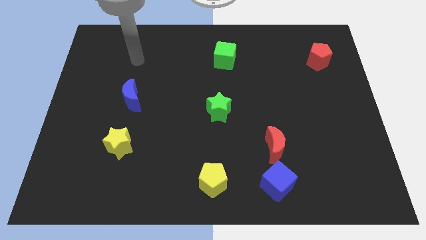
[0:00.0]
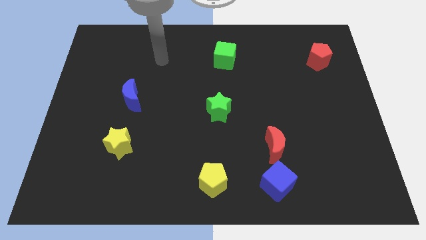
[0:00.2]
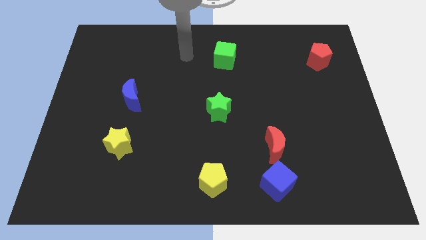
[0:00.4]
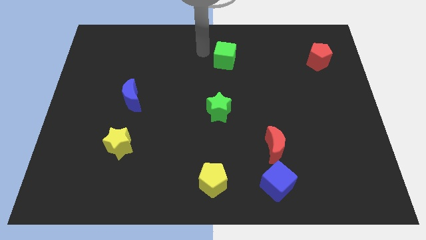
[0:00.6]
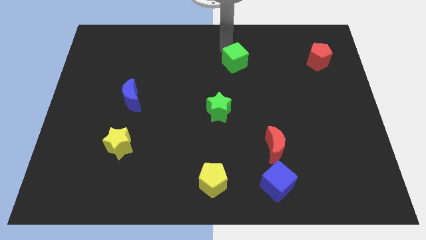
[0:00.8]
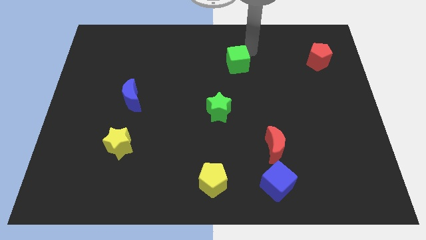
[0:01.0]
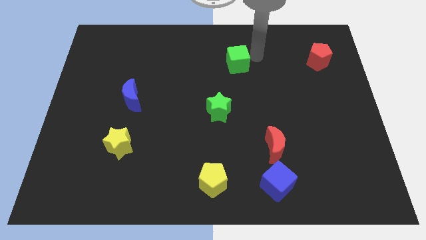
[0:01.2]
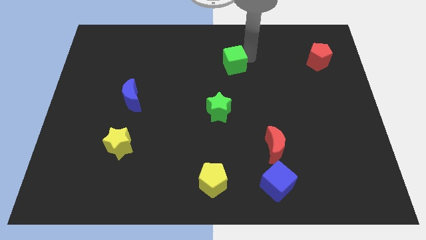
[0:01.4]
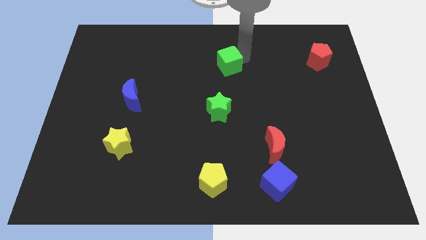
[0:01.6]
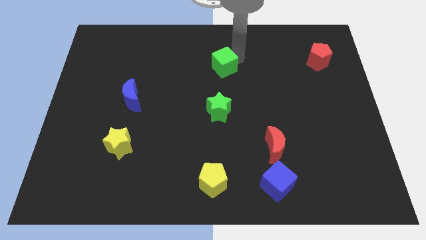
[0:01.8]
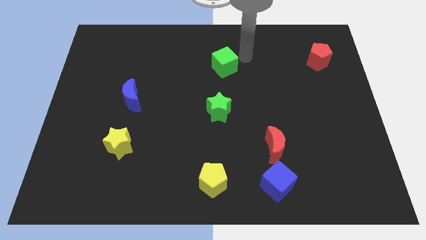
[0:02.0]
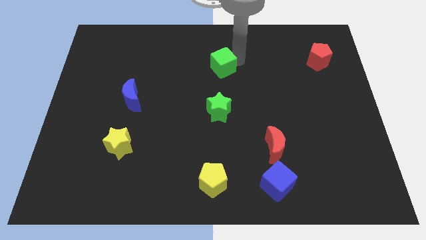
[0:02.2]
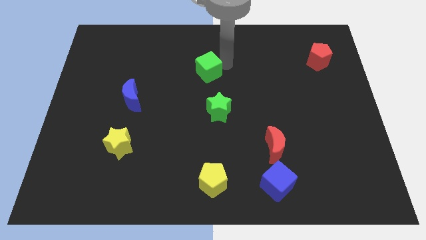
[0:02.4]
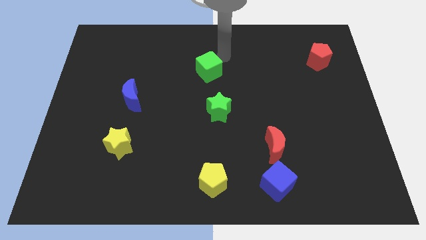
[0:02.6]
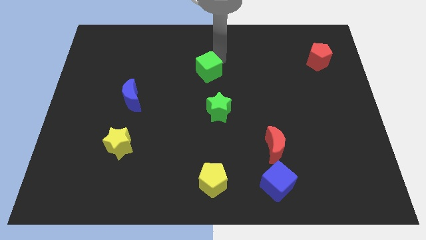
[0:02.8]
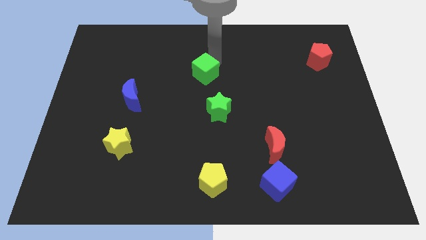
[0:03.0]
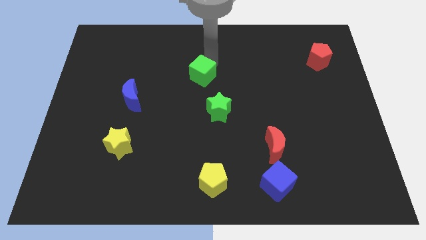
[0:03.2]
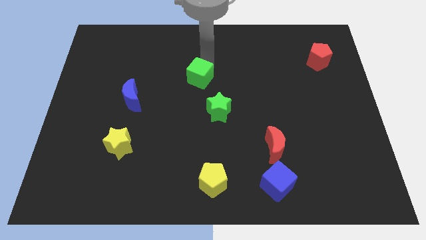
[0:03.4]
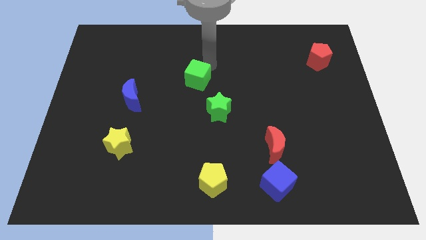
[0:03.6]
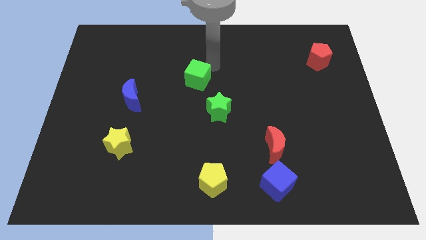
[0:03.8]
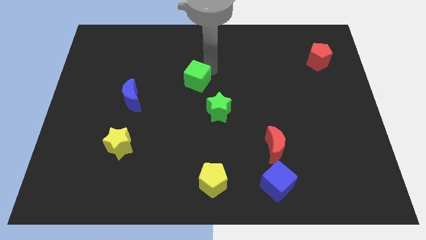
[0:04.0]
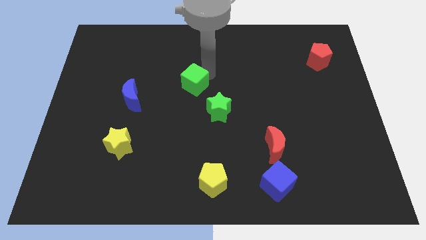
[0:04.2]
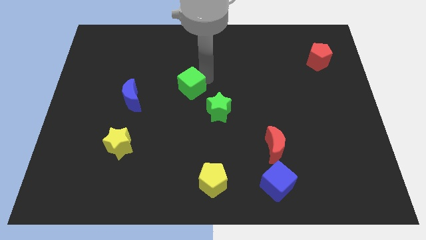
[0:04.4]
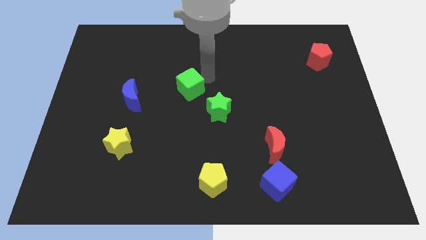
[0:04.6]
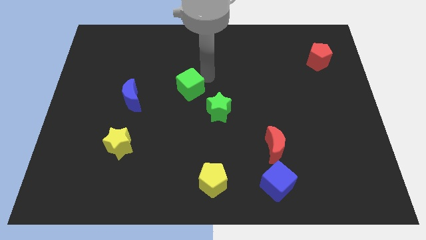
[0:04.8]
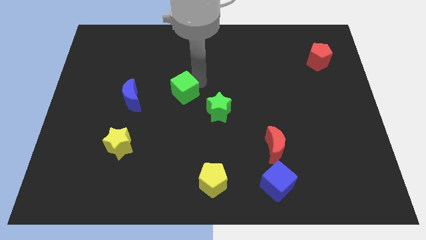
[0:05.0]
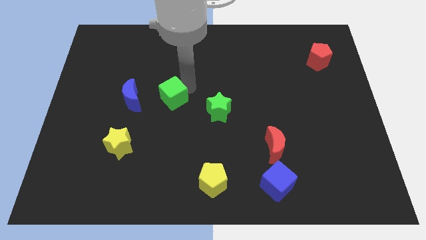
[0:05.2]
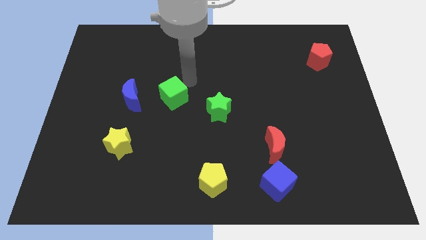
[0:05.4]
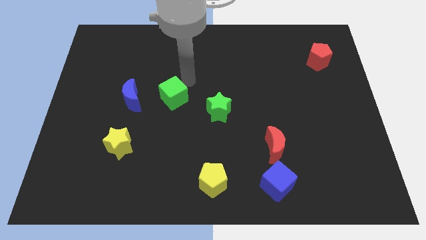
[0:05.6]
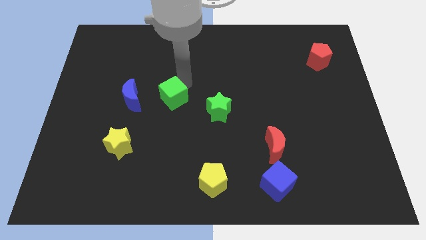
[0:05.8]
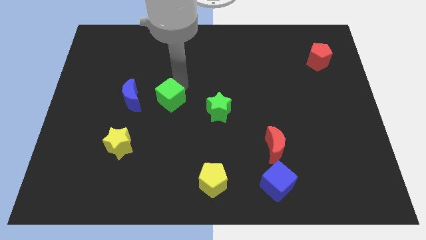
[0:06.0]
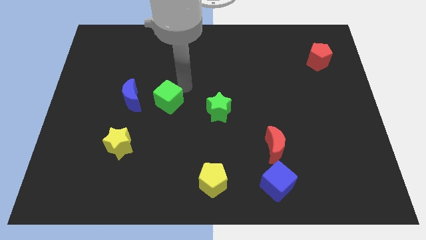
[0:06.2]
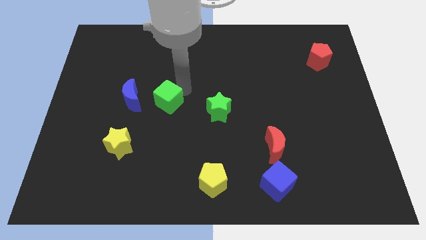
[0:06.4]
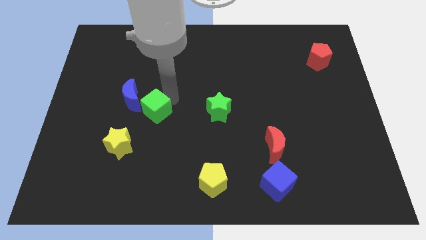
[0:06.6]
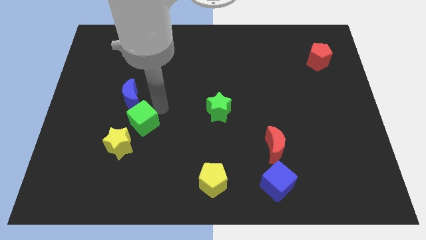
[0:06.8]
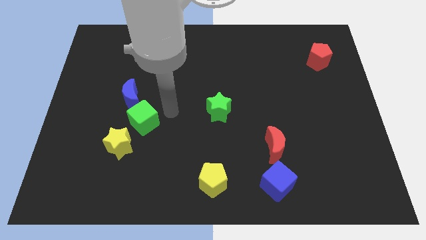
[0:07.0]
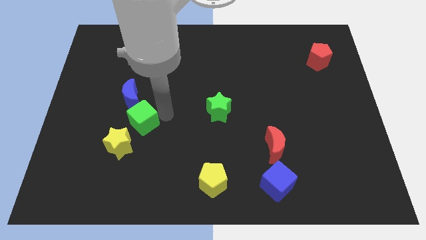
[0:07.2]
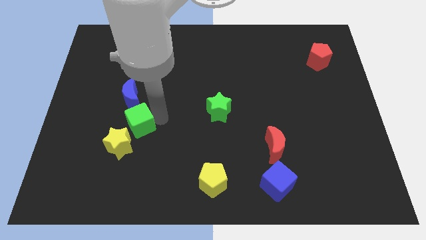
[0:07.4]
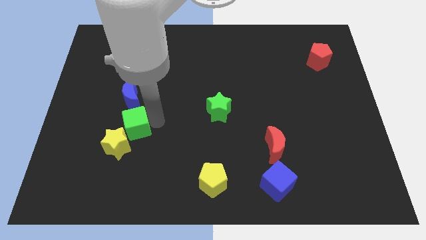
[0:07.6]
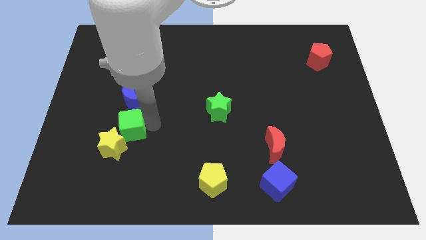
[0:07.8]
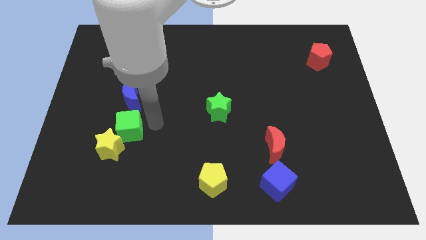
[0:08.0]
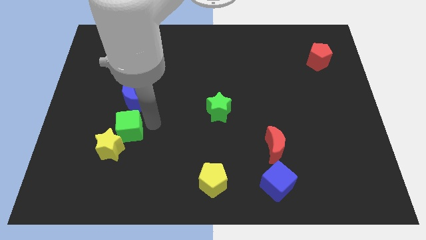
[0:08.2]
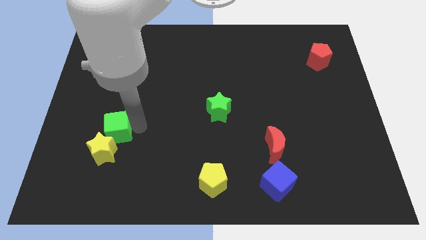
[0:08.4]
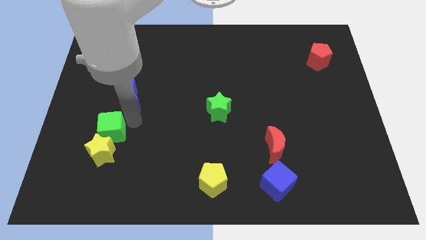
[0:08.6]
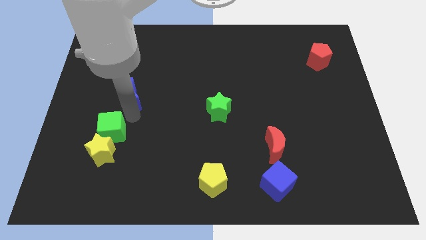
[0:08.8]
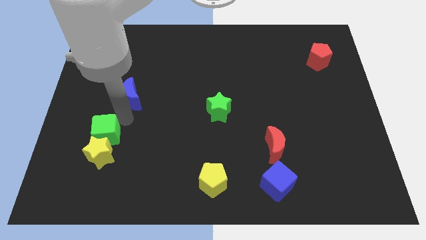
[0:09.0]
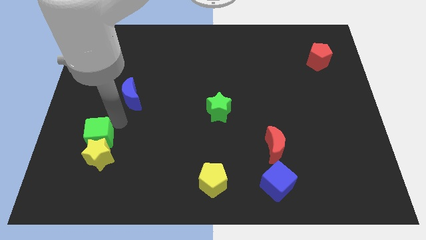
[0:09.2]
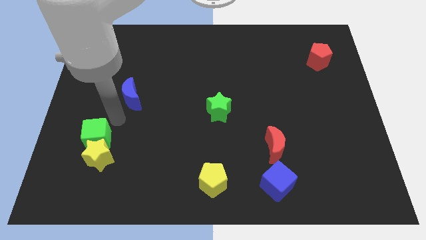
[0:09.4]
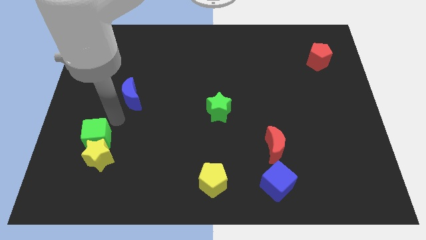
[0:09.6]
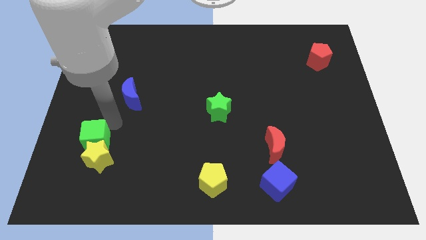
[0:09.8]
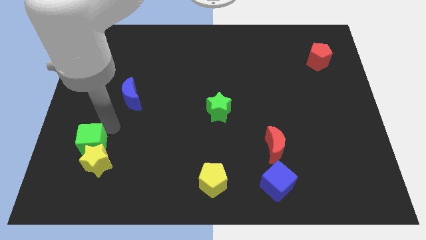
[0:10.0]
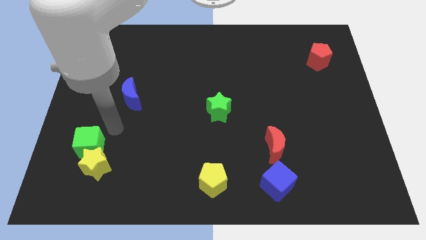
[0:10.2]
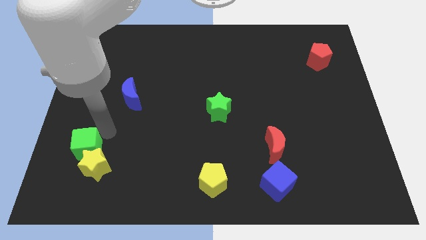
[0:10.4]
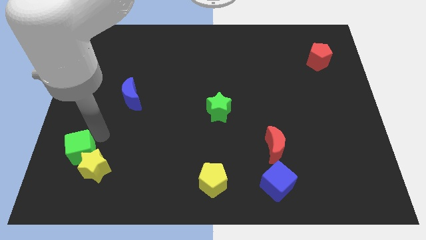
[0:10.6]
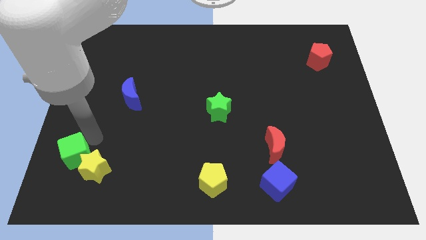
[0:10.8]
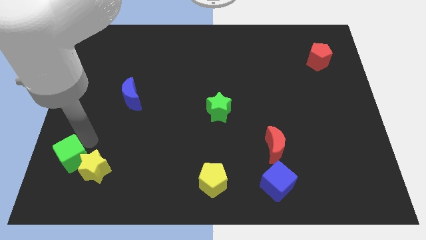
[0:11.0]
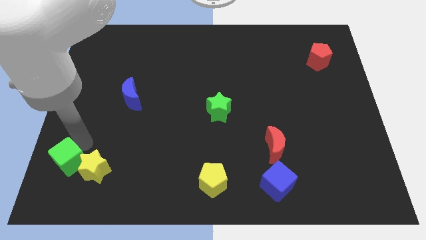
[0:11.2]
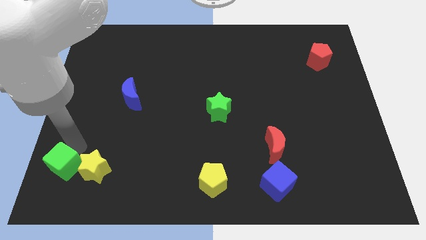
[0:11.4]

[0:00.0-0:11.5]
slide the green cube to the bottom left corner
